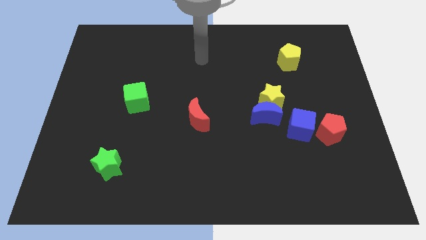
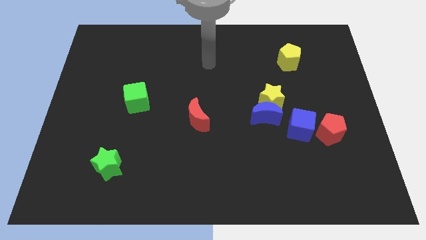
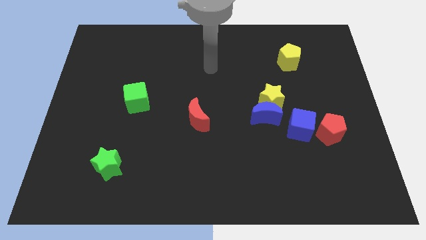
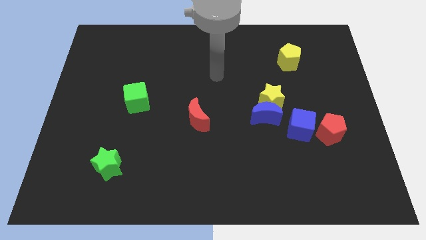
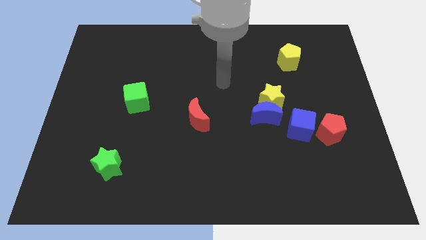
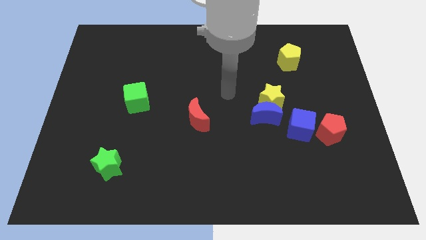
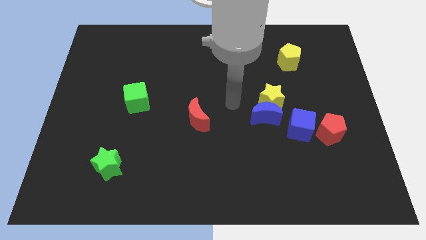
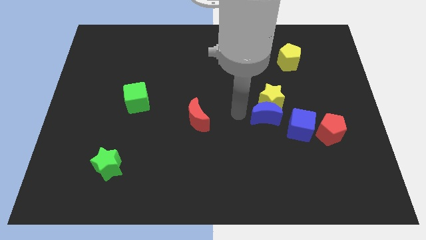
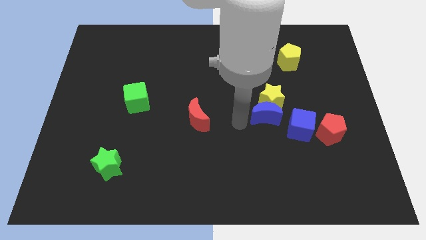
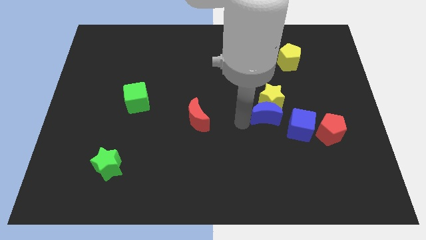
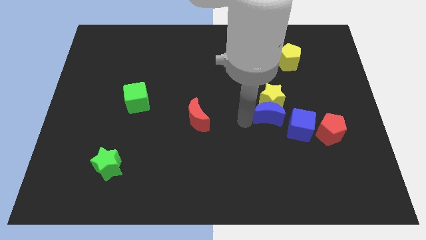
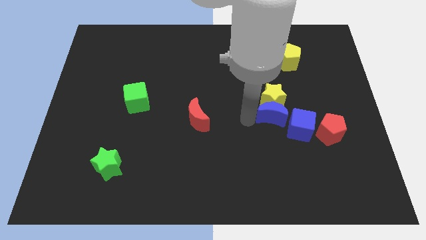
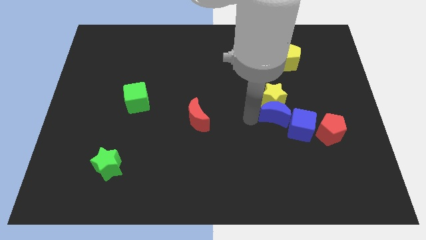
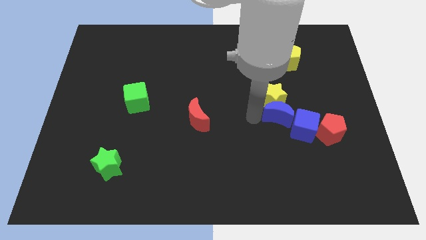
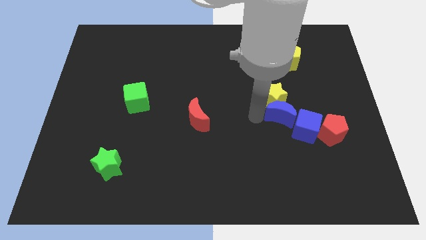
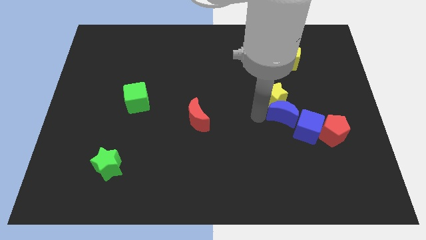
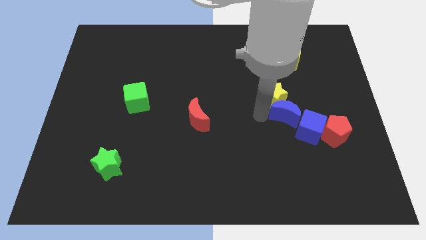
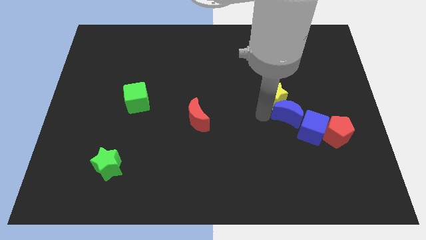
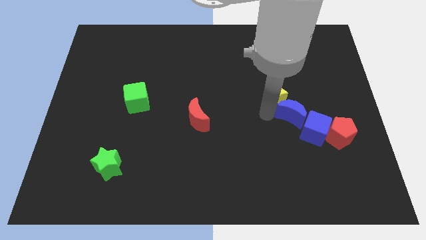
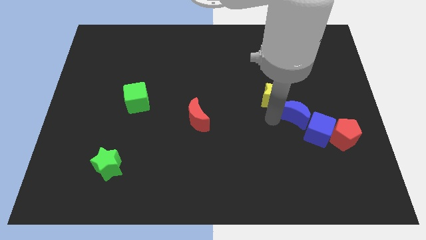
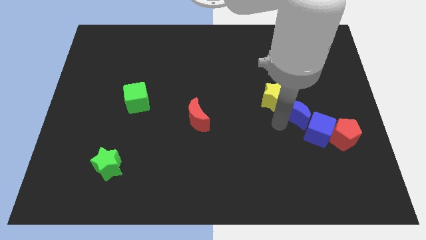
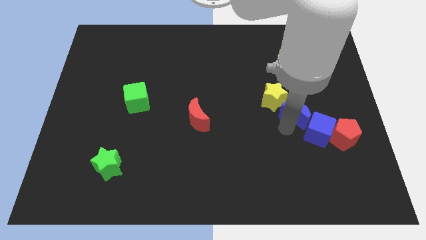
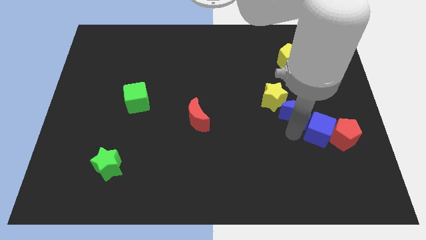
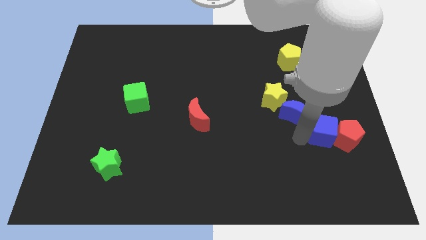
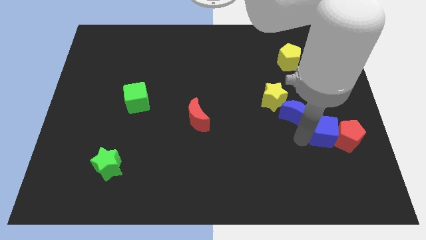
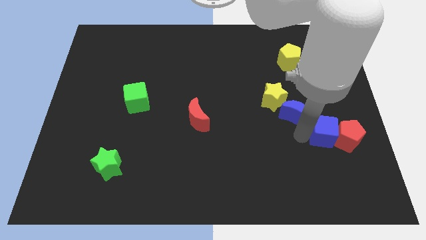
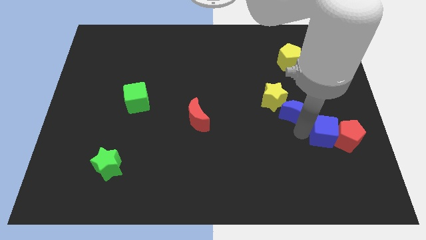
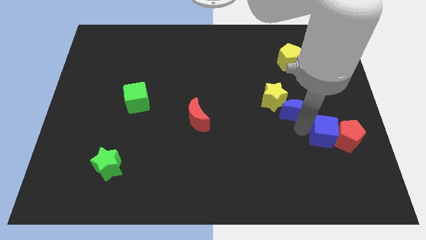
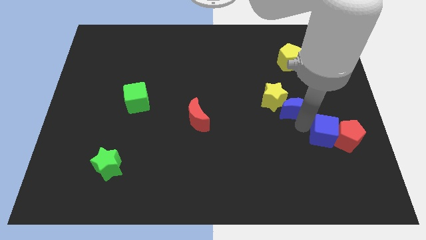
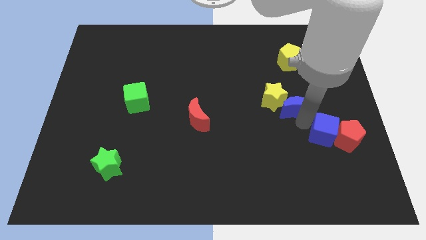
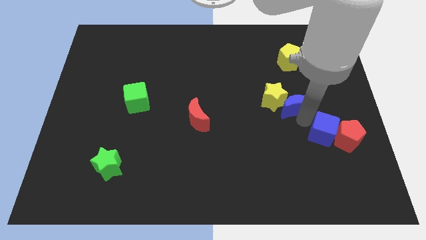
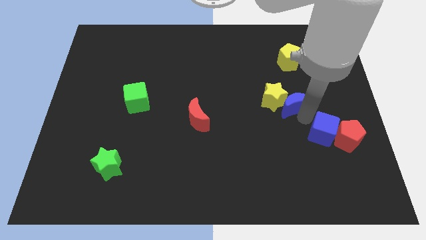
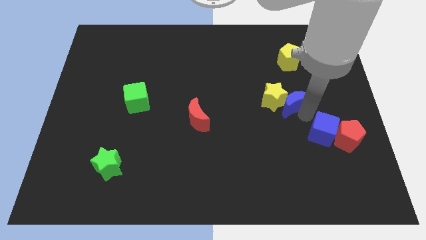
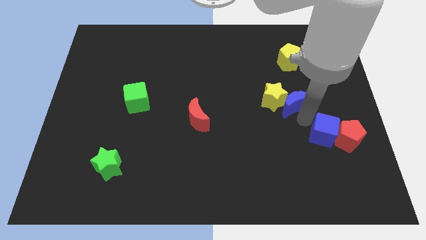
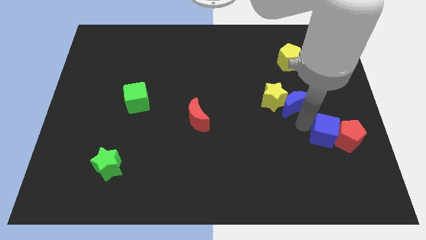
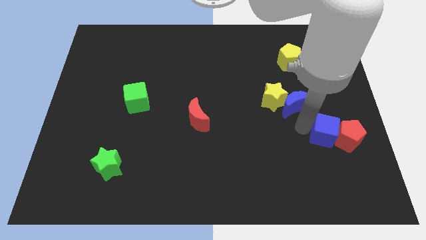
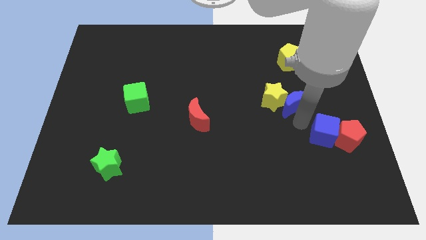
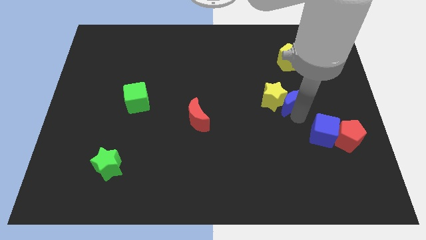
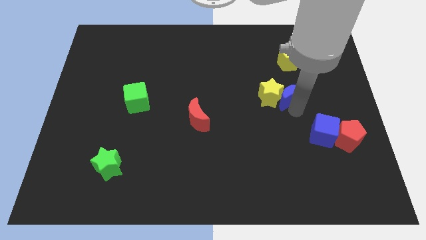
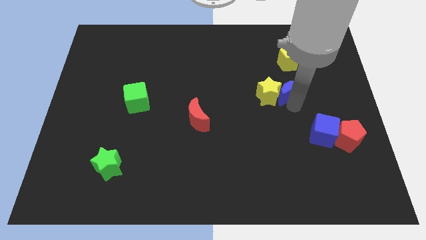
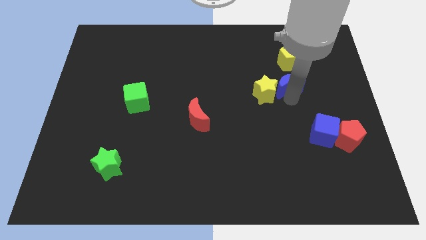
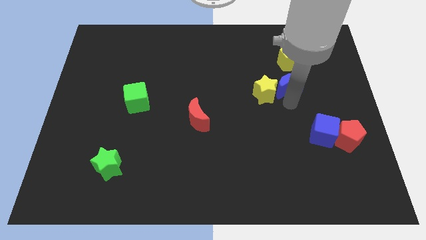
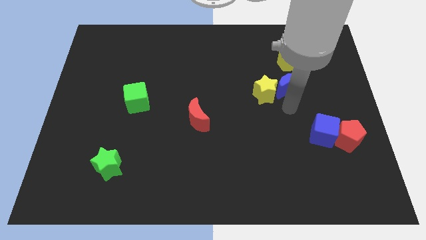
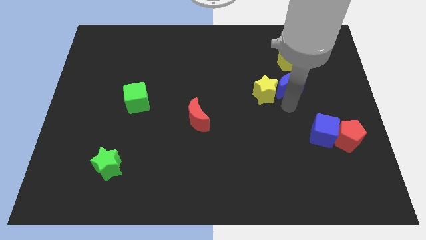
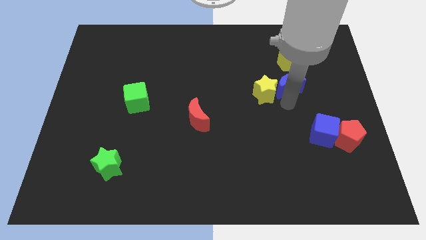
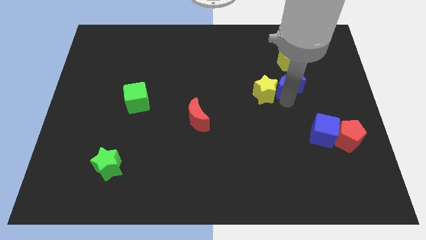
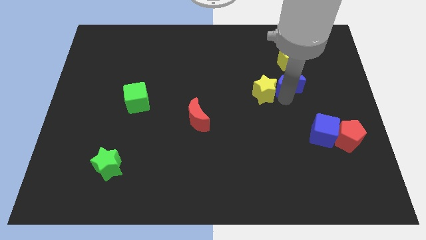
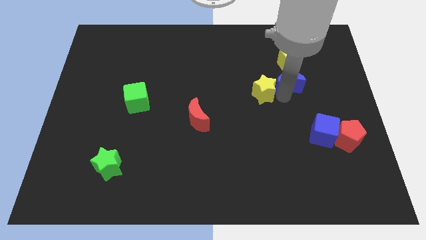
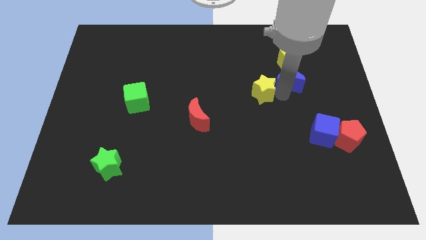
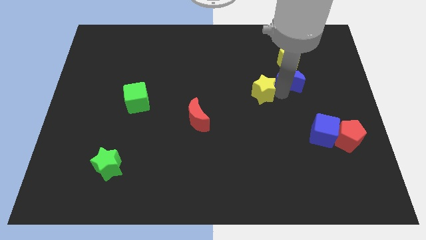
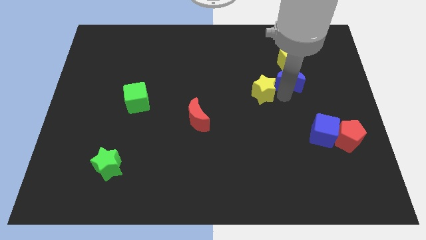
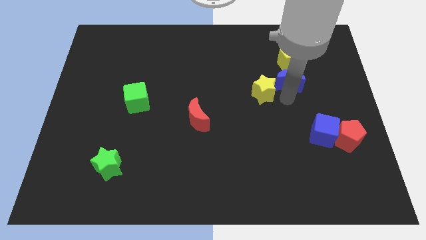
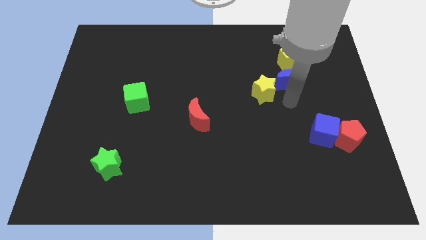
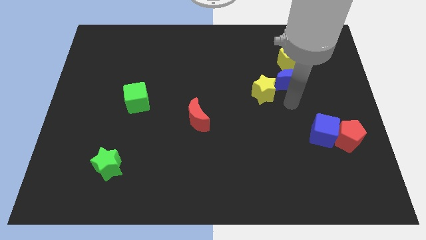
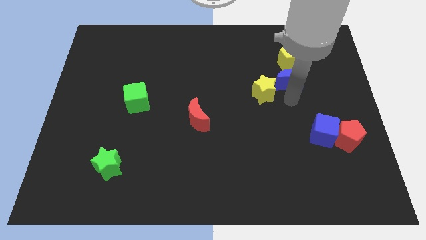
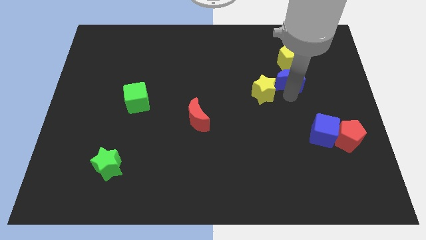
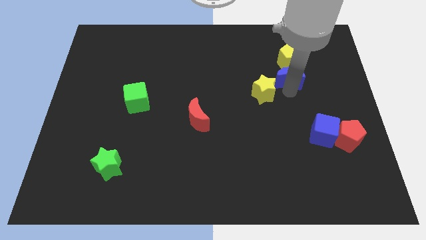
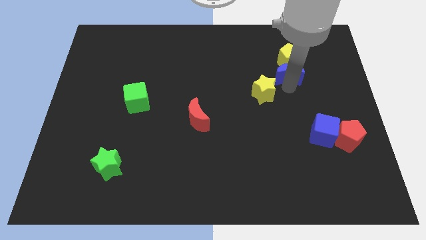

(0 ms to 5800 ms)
put the blue moon next to the yellow pentagon

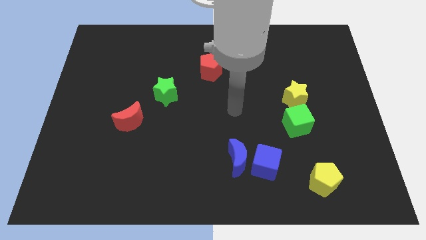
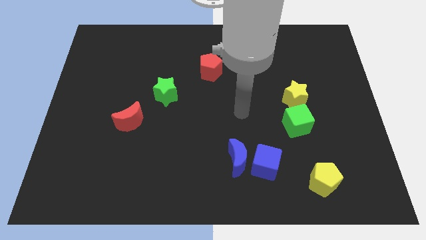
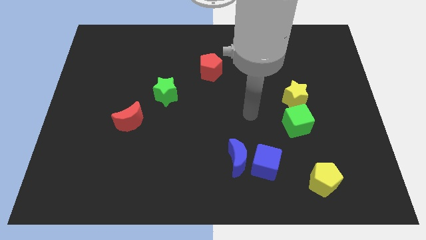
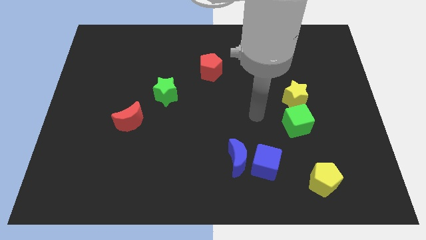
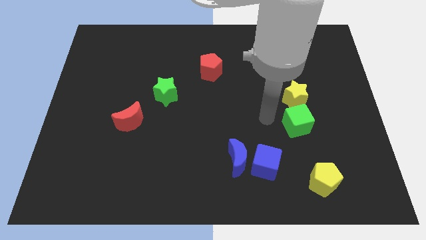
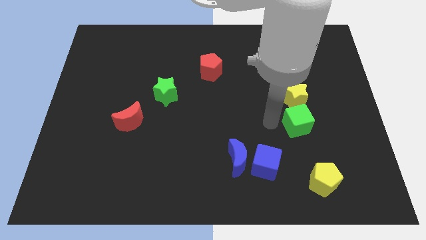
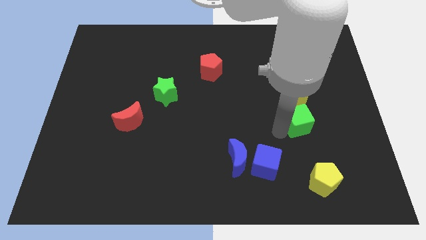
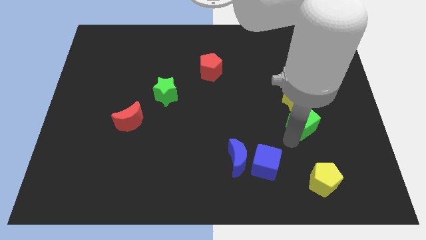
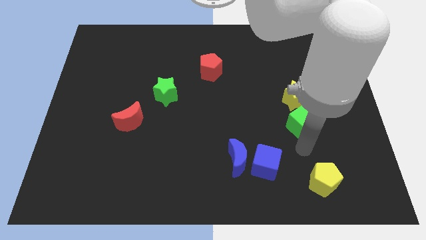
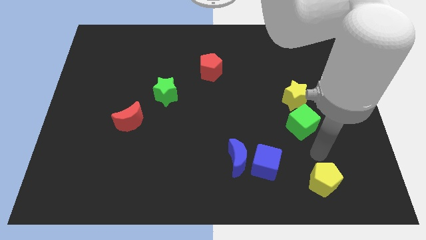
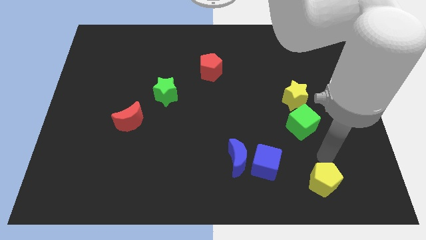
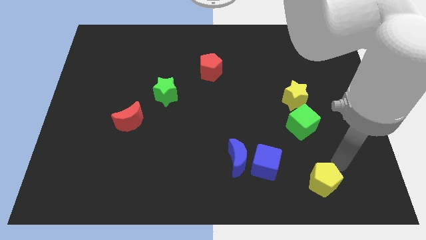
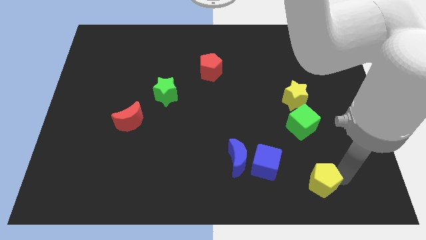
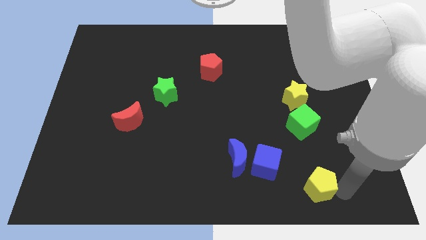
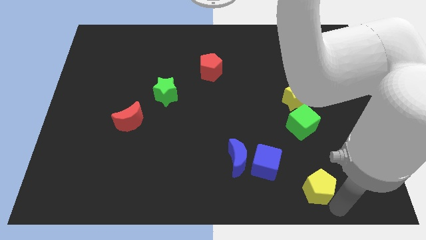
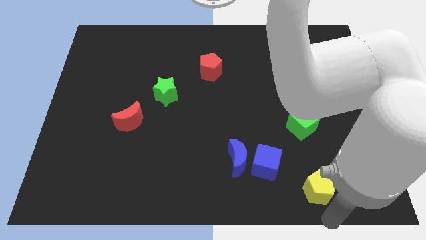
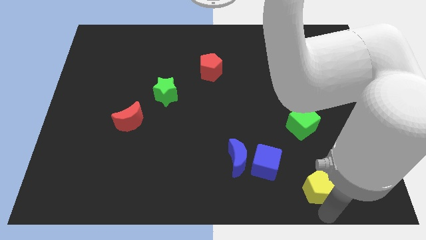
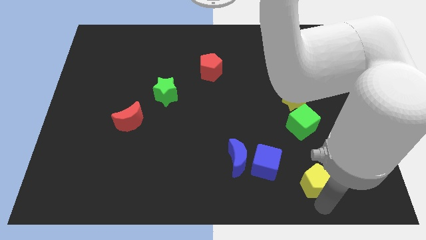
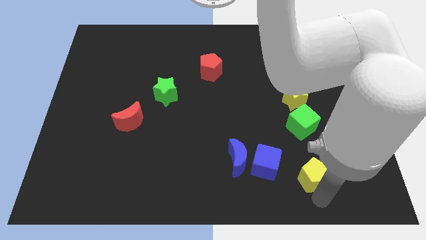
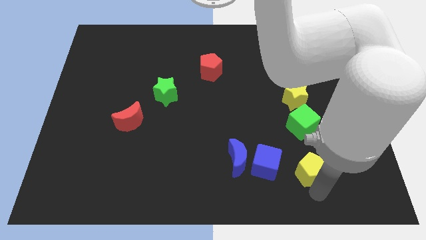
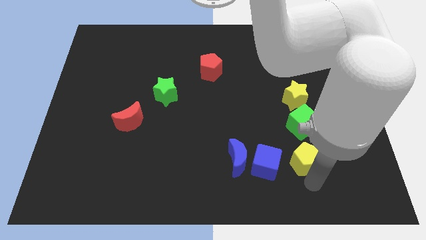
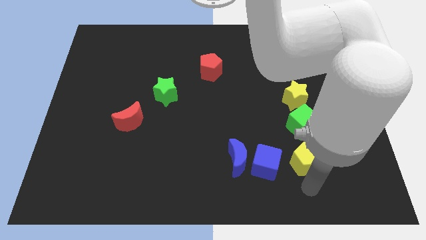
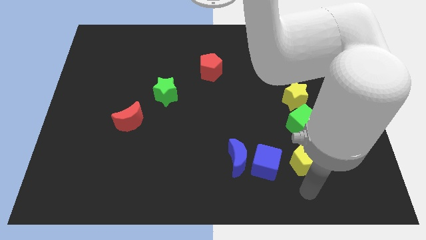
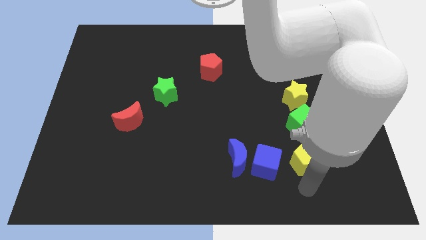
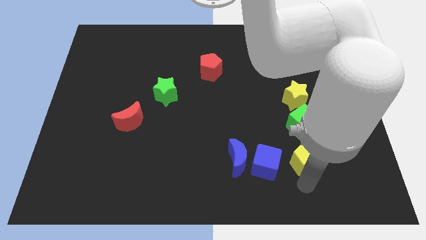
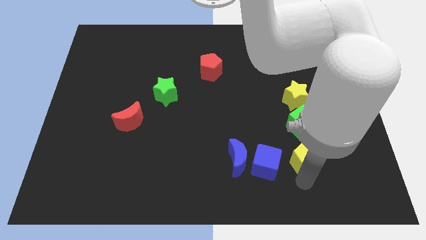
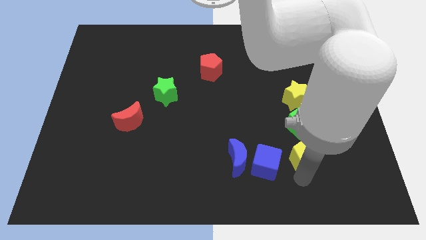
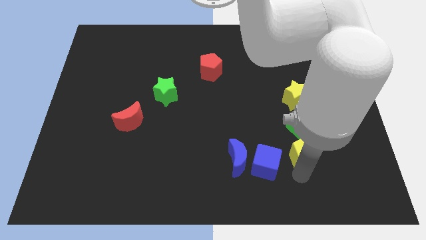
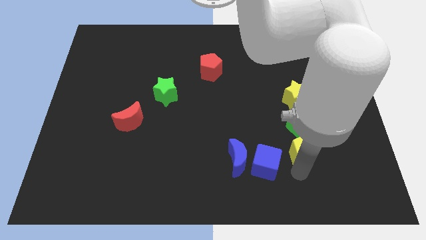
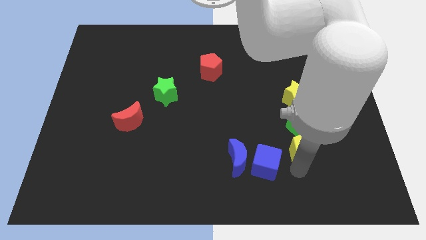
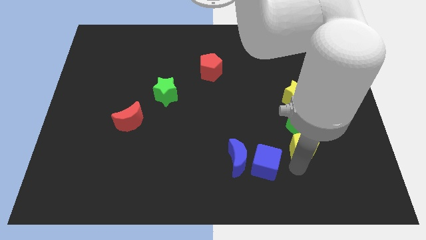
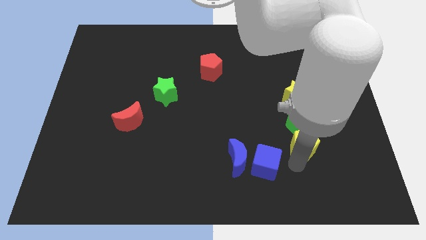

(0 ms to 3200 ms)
move the yellow pentagon next to the green cube
